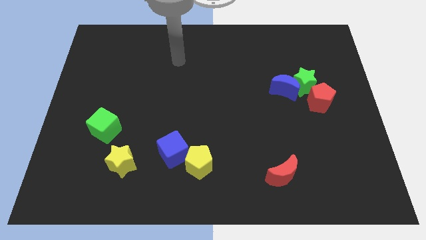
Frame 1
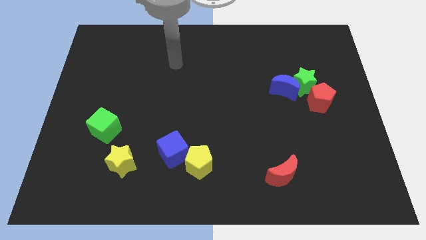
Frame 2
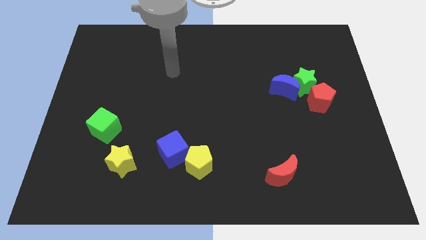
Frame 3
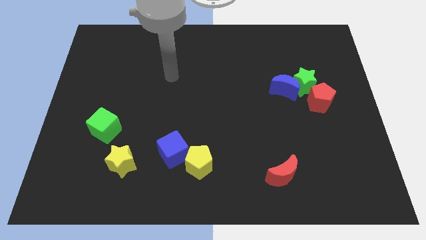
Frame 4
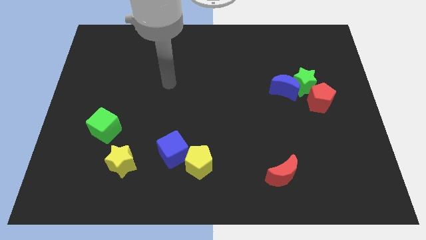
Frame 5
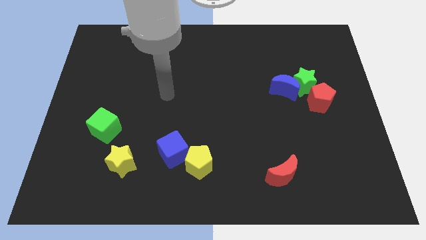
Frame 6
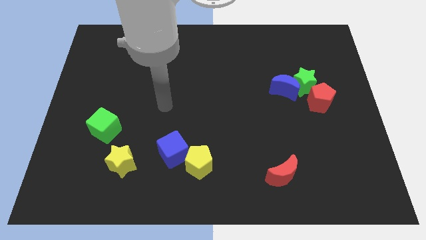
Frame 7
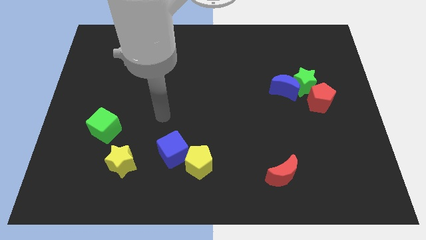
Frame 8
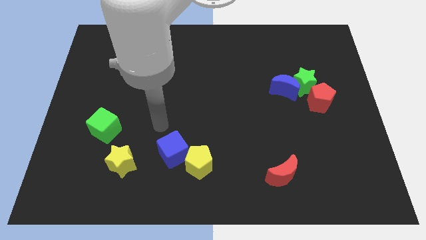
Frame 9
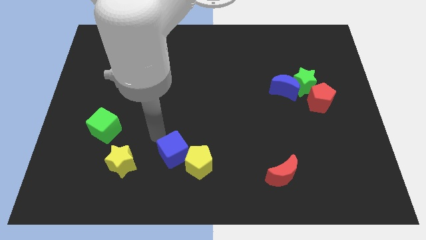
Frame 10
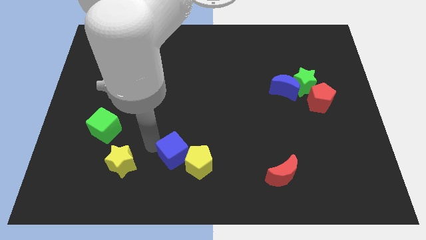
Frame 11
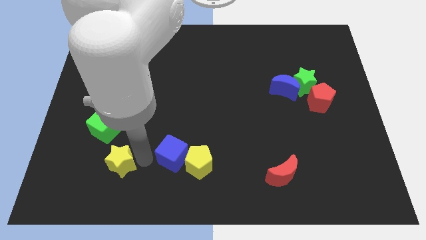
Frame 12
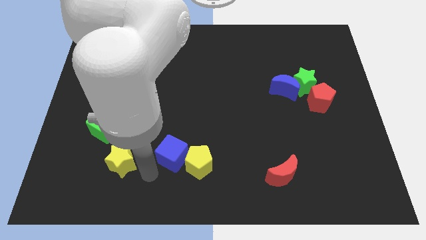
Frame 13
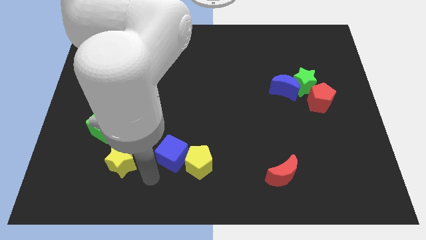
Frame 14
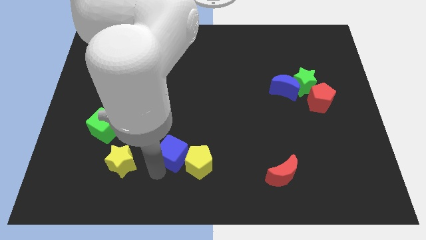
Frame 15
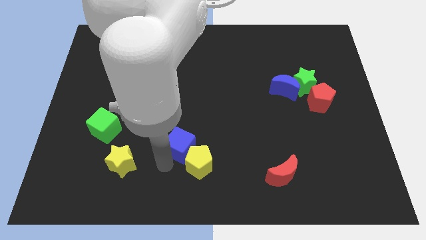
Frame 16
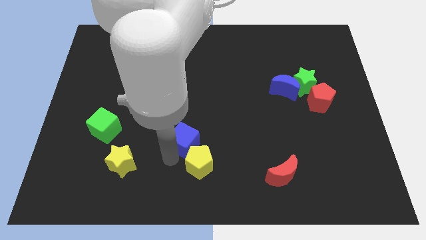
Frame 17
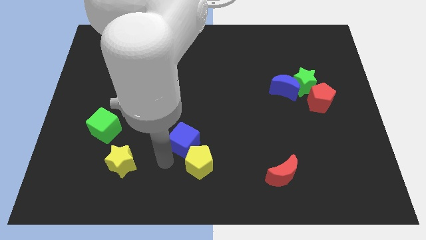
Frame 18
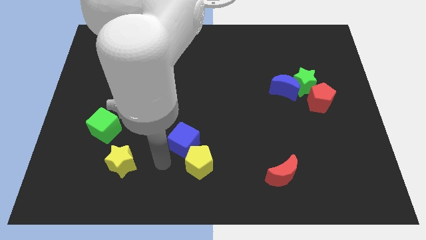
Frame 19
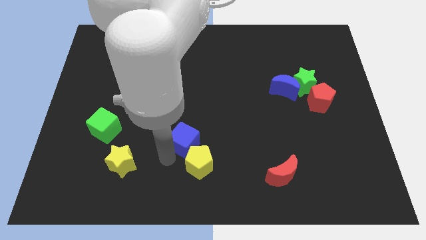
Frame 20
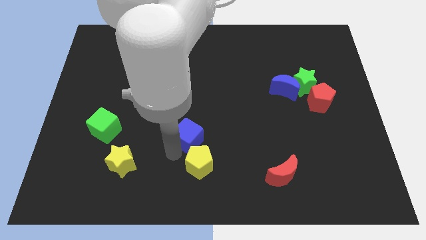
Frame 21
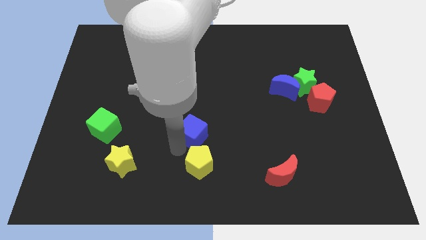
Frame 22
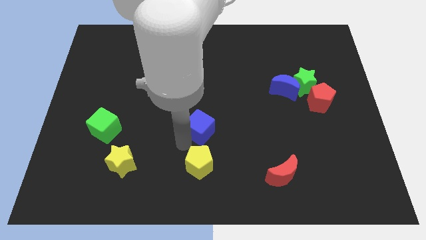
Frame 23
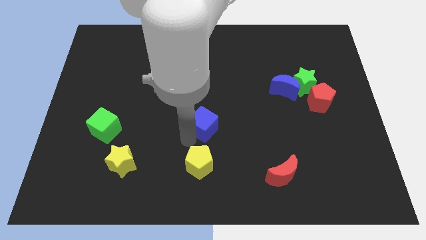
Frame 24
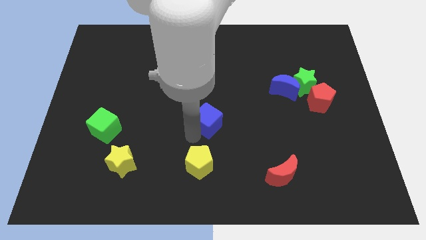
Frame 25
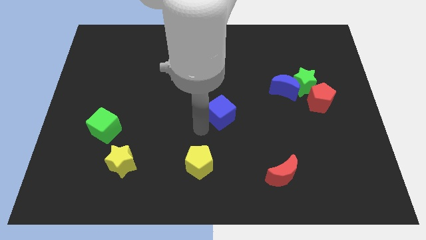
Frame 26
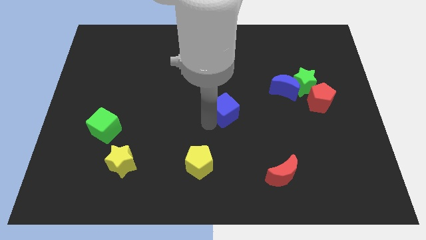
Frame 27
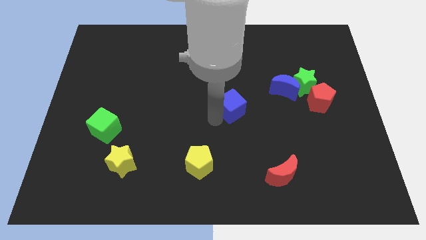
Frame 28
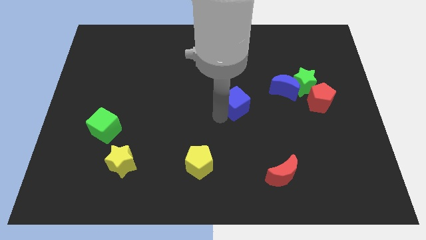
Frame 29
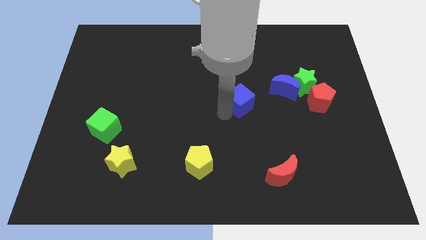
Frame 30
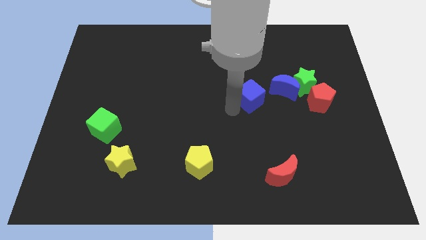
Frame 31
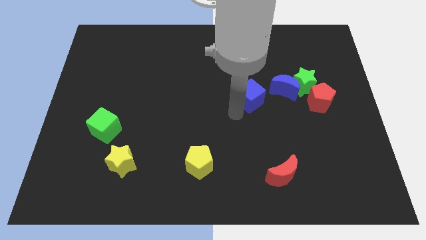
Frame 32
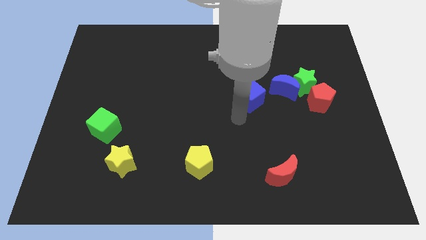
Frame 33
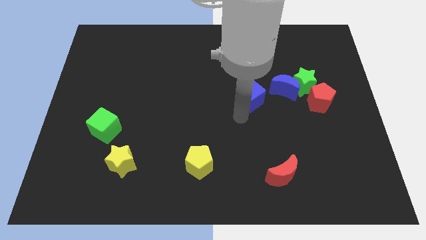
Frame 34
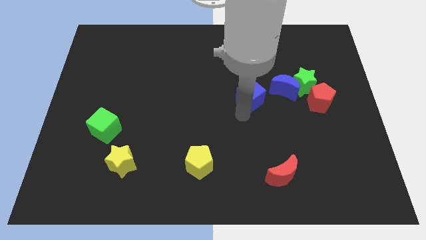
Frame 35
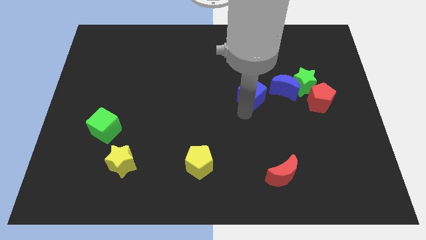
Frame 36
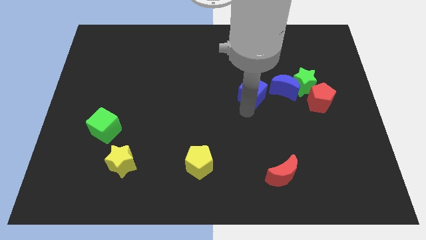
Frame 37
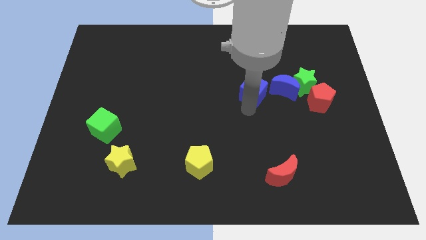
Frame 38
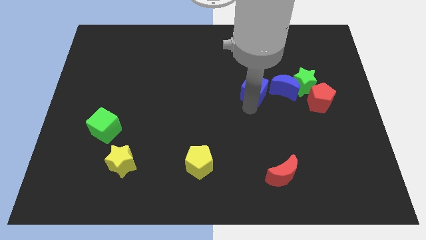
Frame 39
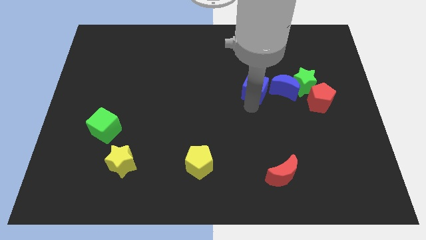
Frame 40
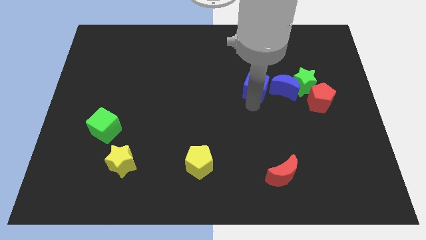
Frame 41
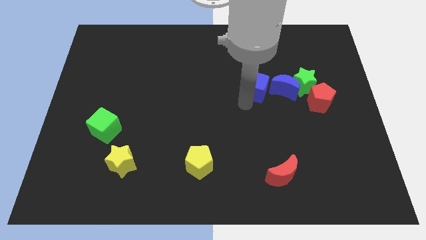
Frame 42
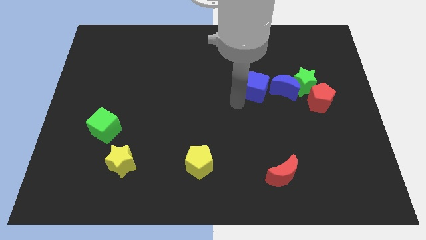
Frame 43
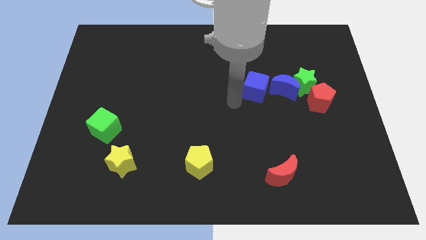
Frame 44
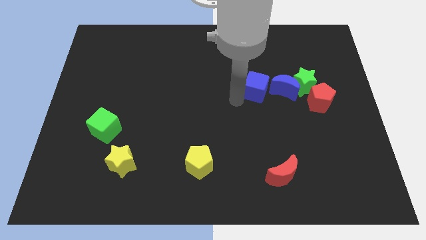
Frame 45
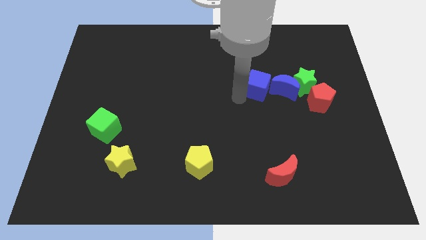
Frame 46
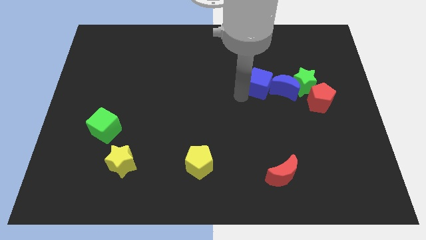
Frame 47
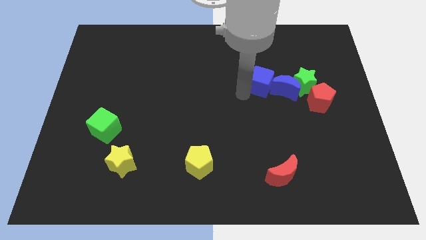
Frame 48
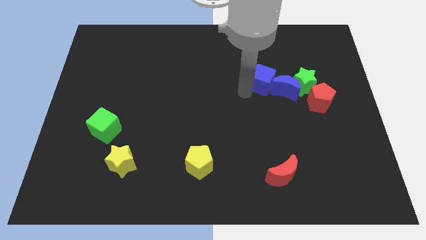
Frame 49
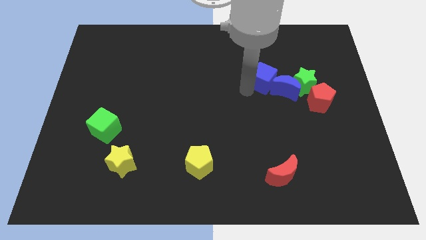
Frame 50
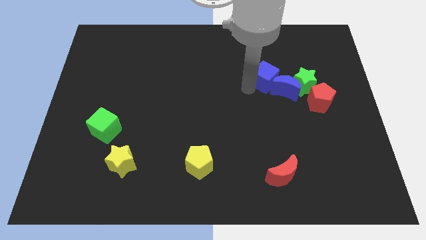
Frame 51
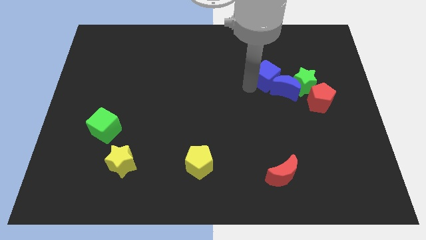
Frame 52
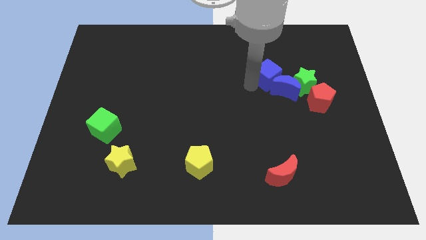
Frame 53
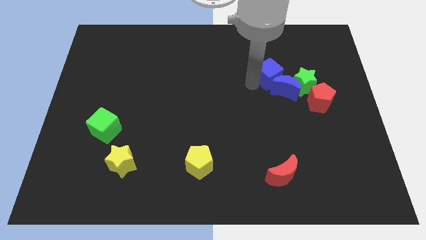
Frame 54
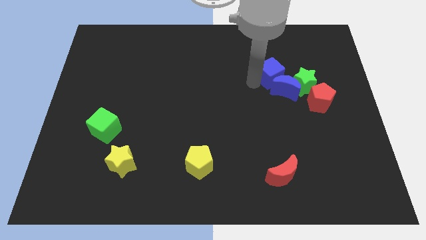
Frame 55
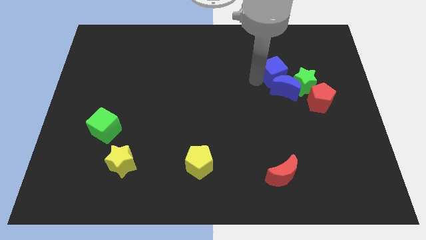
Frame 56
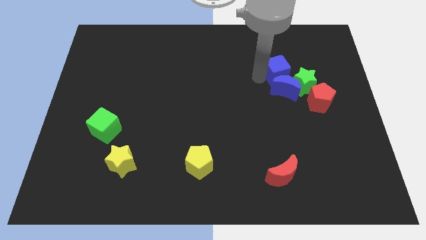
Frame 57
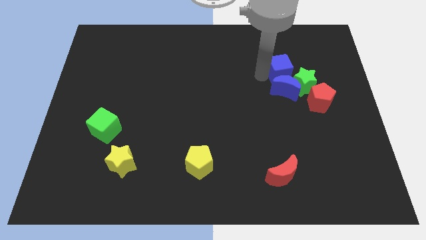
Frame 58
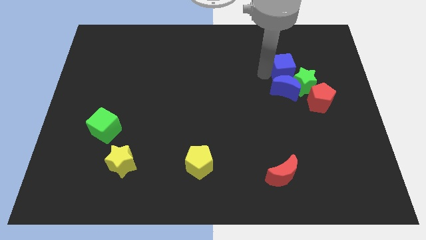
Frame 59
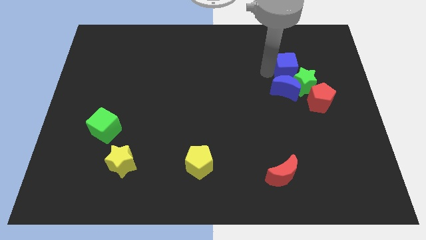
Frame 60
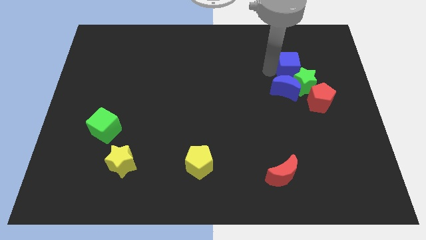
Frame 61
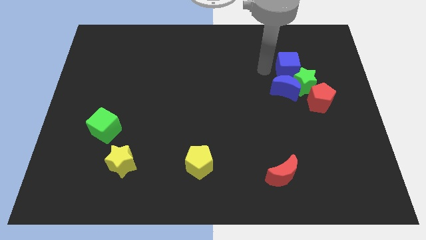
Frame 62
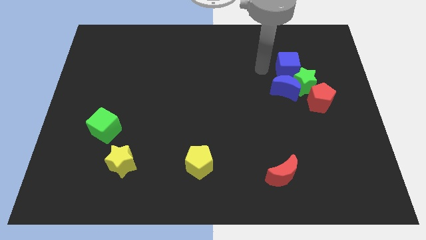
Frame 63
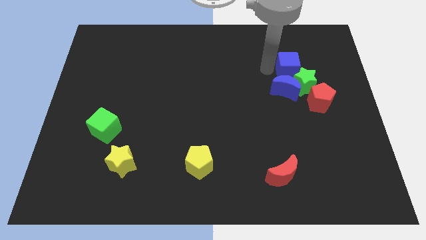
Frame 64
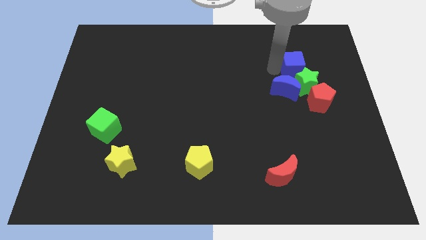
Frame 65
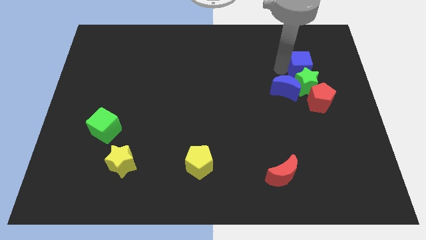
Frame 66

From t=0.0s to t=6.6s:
slide the blue cube to the top of the red pentagon

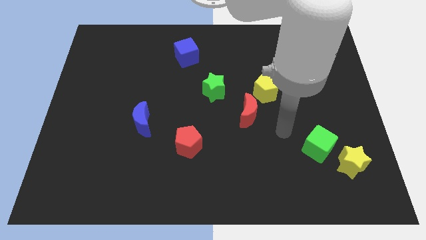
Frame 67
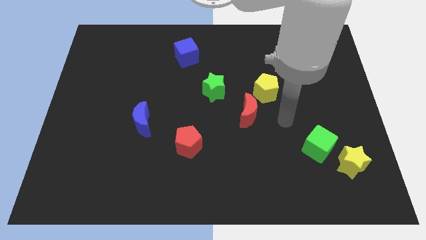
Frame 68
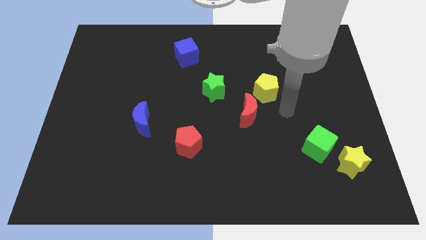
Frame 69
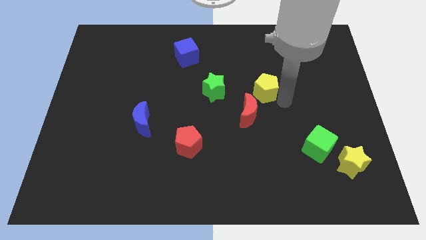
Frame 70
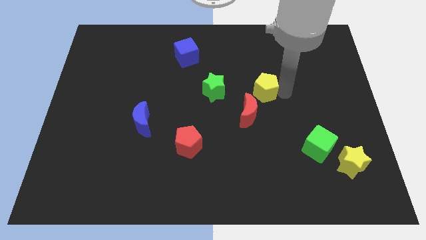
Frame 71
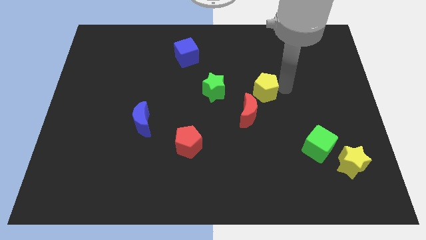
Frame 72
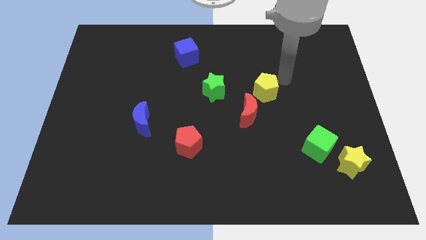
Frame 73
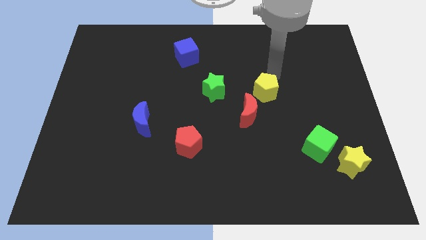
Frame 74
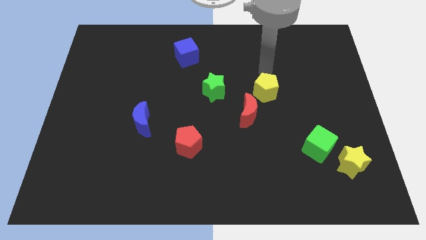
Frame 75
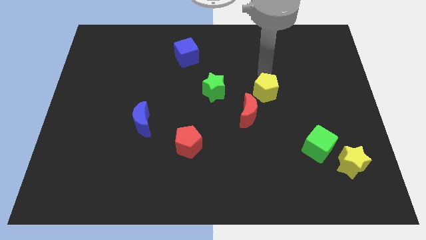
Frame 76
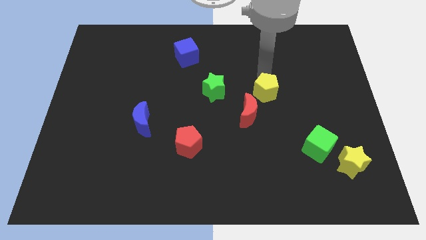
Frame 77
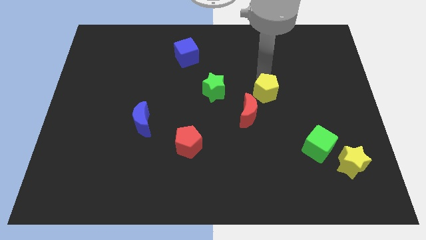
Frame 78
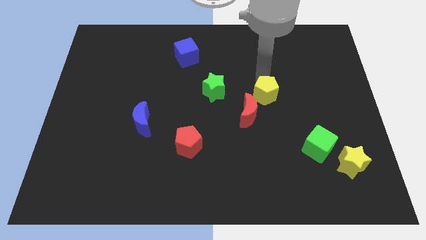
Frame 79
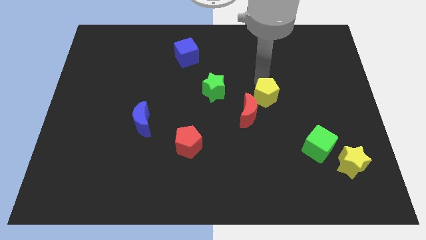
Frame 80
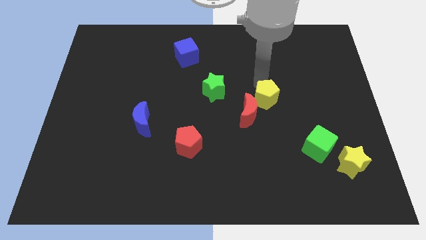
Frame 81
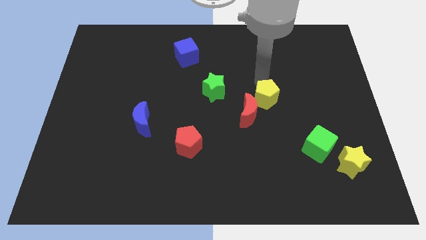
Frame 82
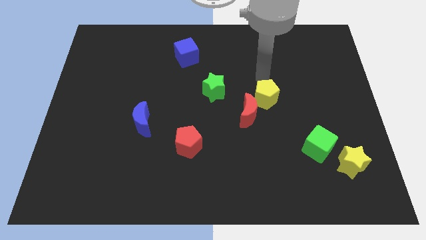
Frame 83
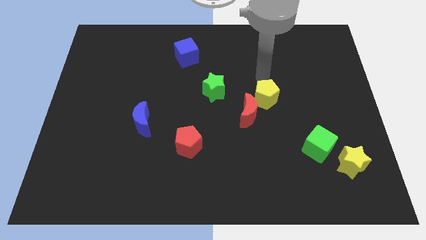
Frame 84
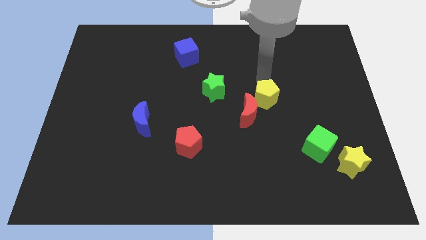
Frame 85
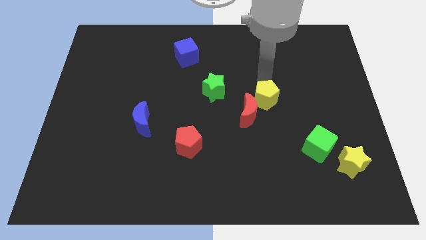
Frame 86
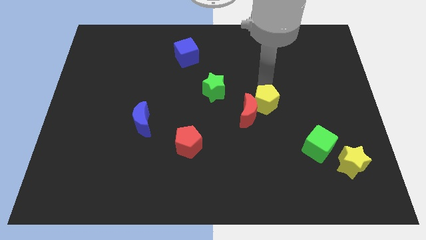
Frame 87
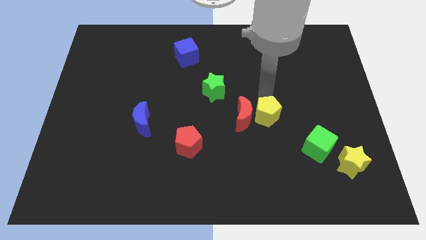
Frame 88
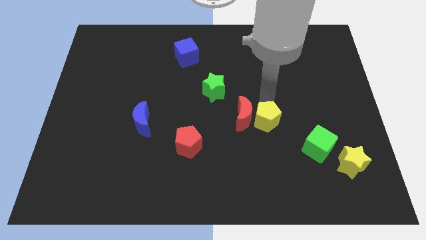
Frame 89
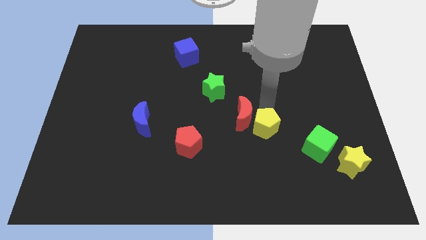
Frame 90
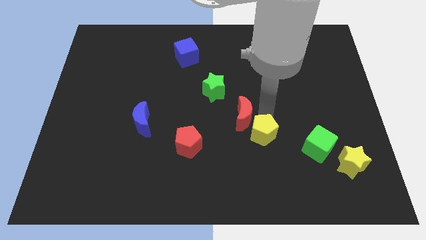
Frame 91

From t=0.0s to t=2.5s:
push the yellow pentagon to the left of the green cube
